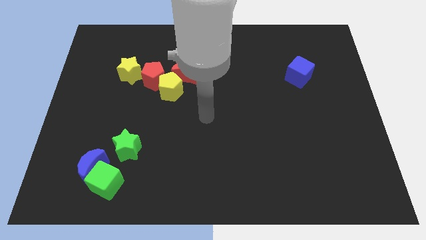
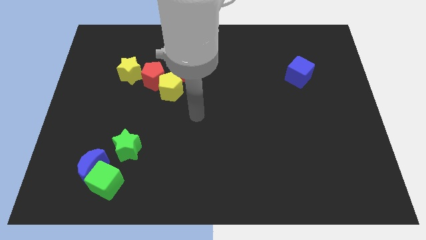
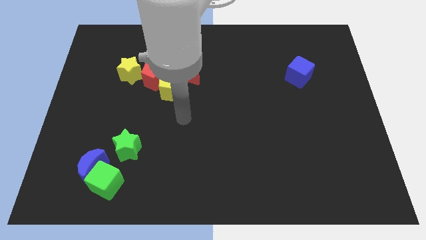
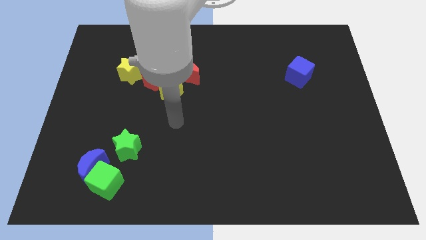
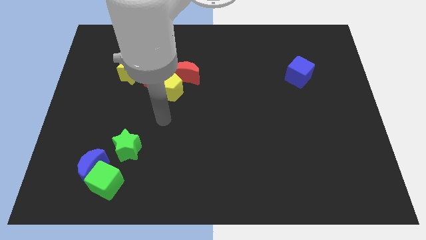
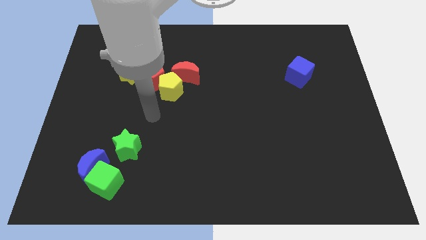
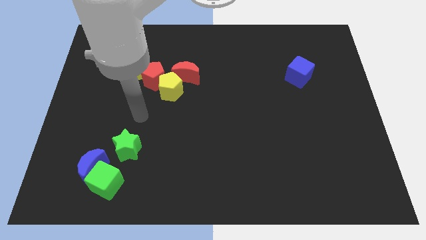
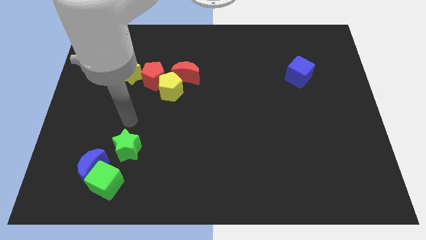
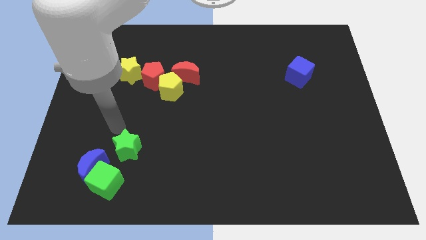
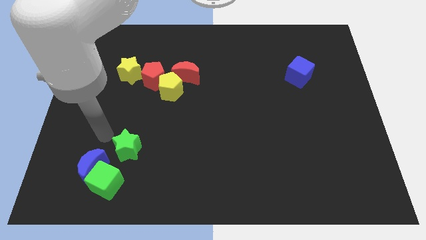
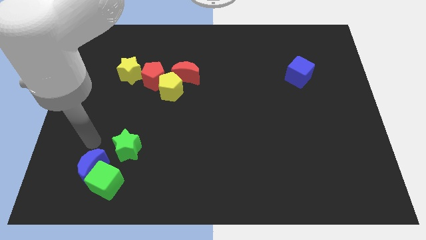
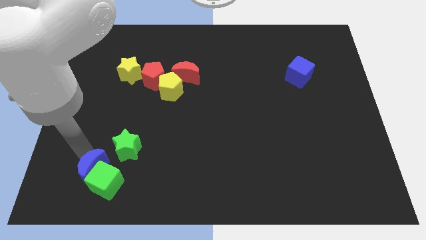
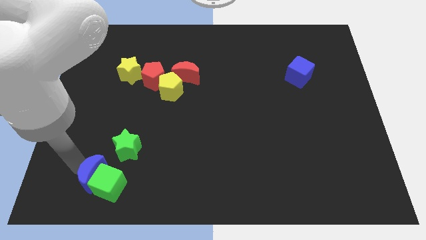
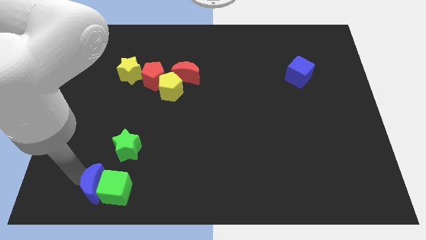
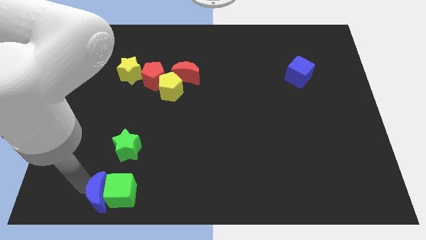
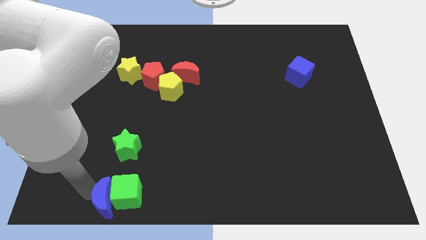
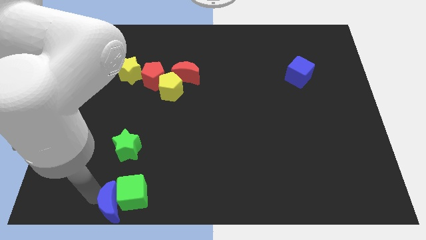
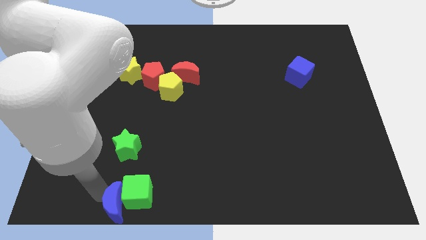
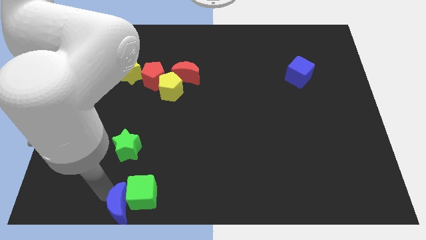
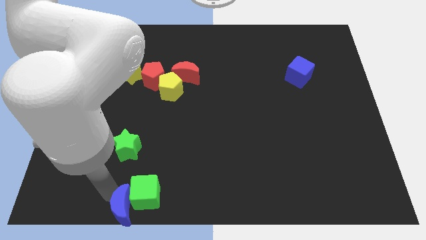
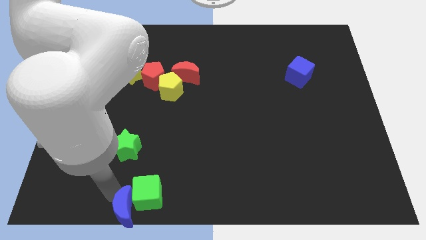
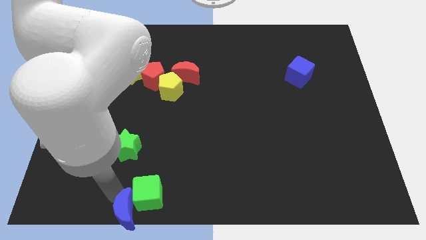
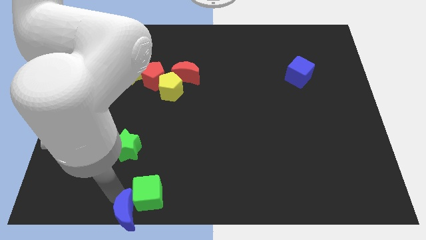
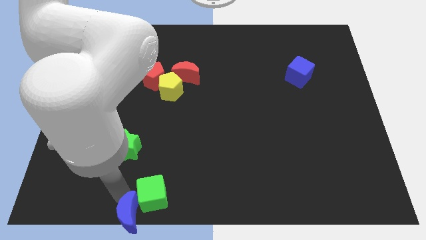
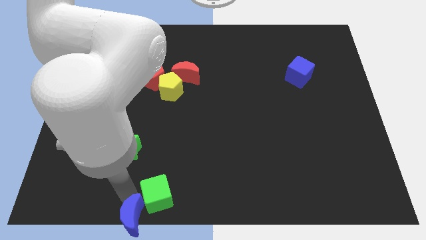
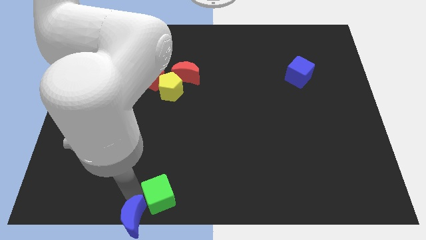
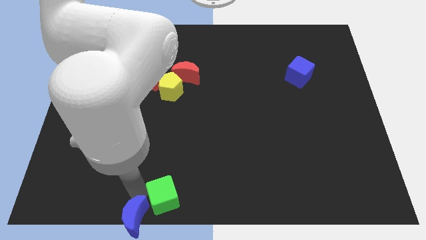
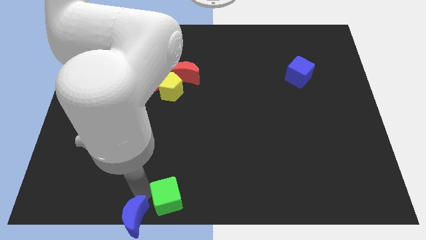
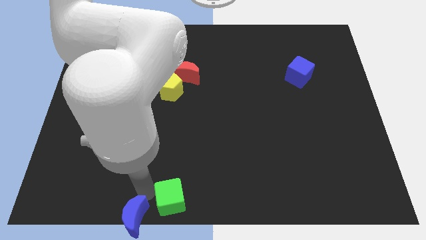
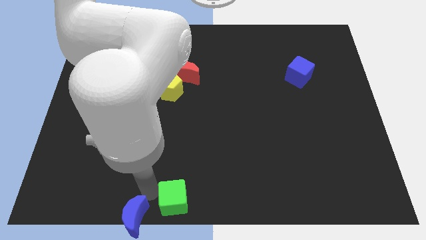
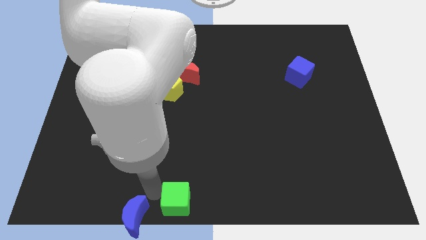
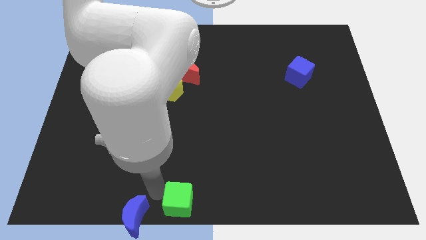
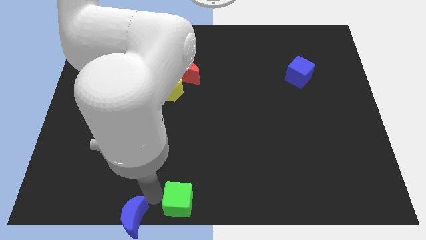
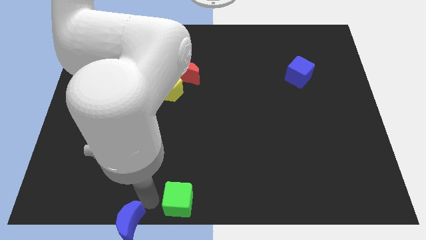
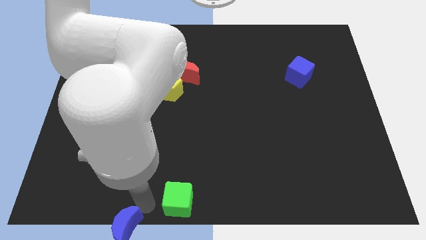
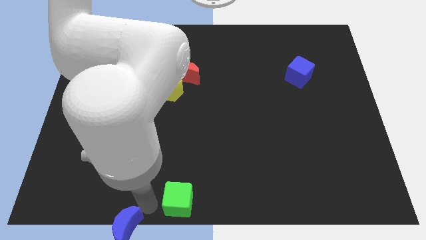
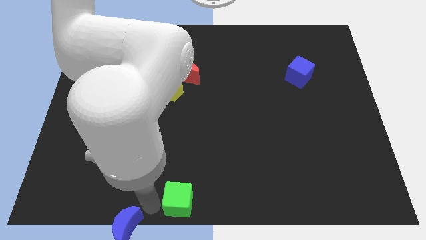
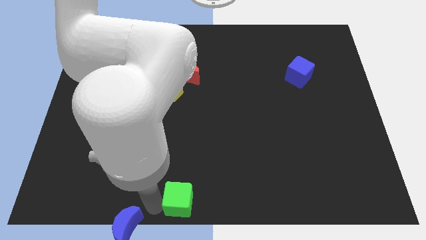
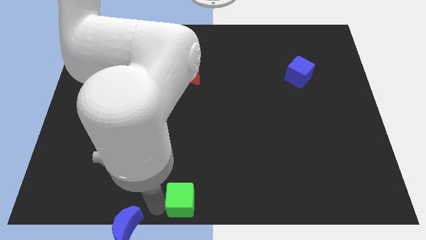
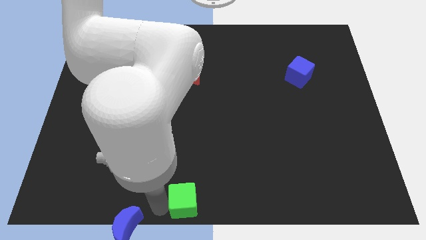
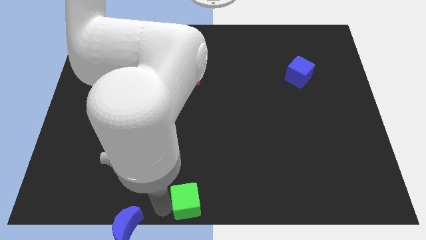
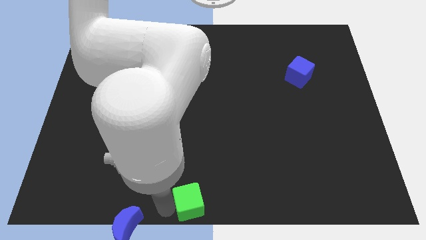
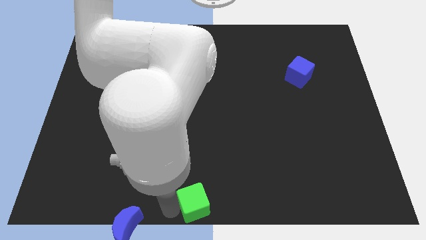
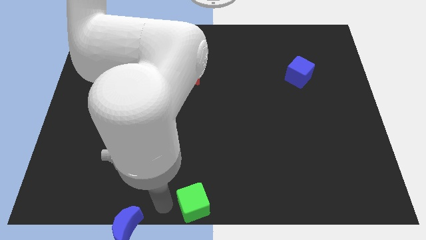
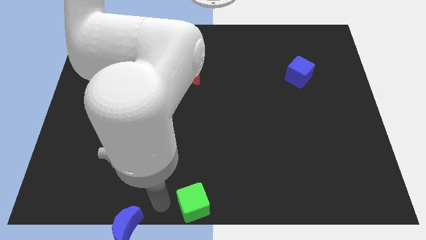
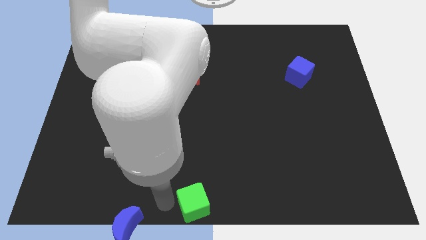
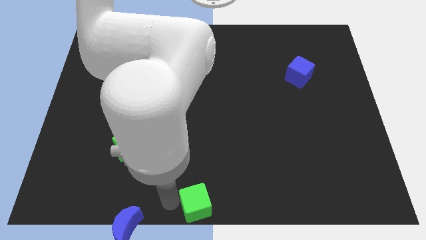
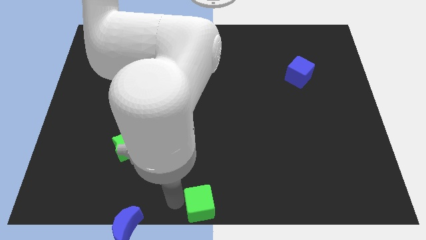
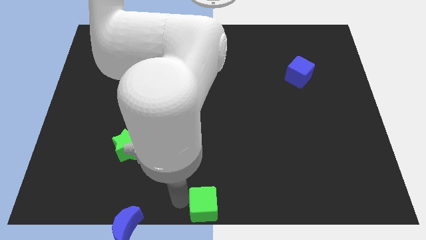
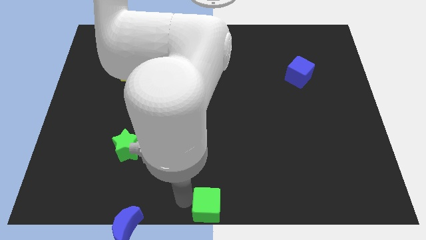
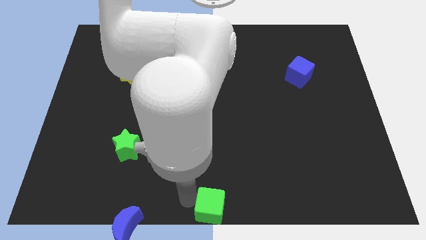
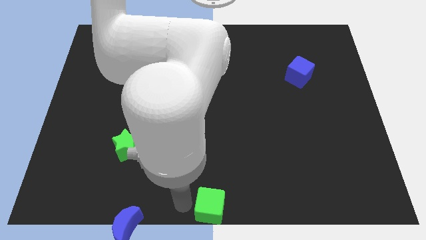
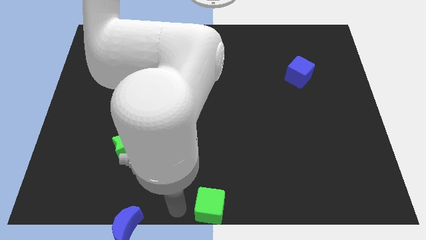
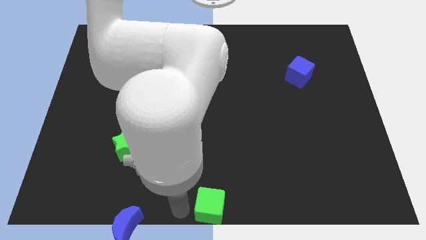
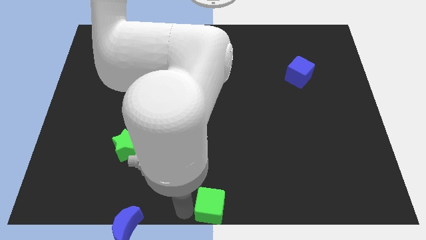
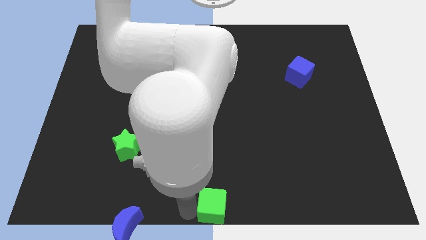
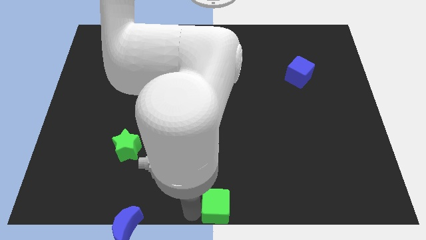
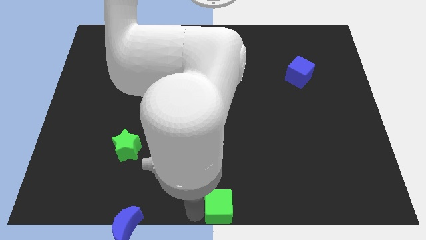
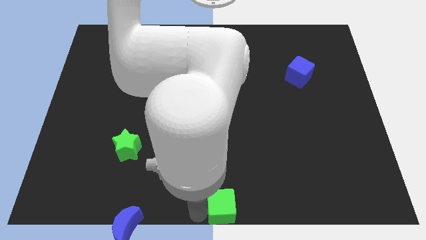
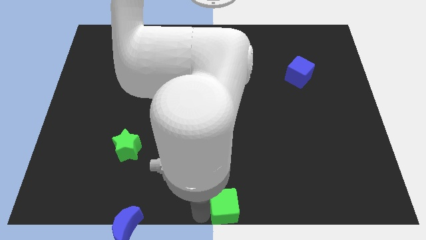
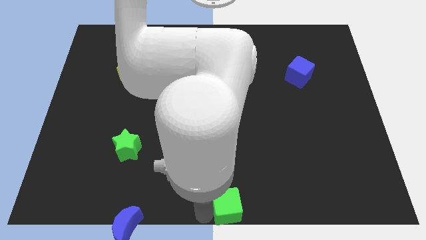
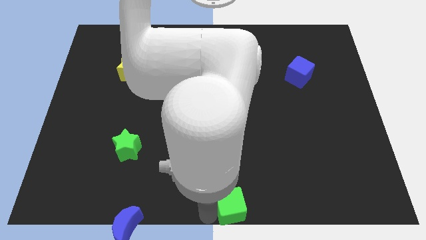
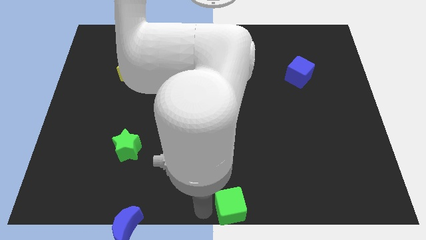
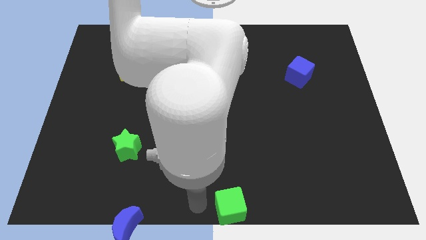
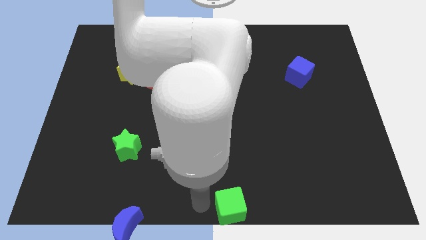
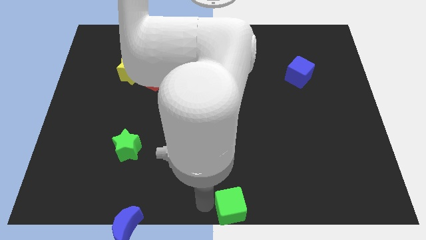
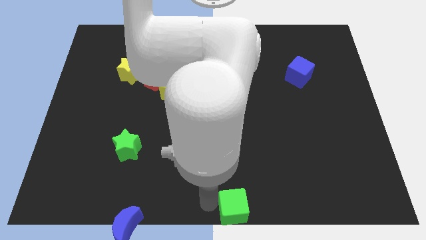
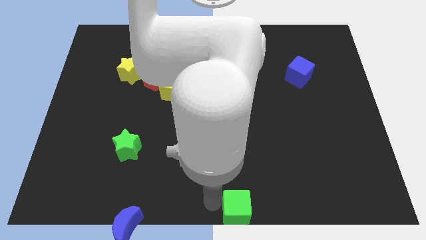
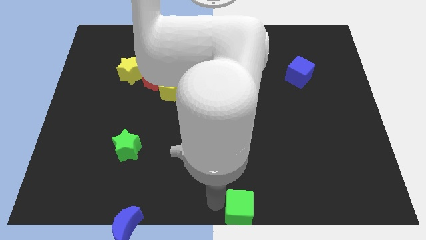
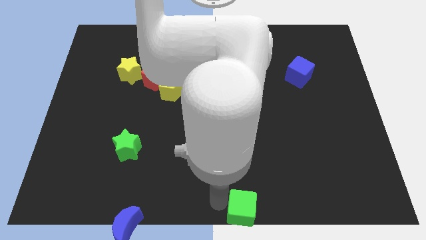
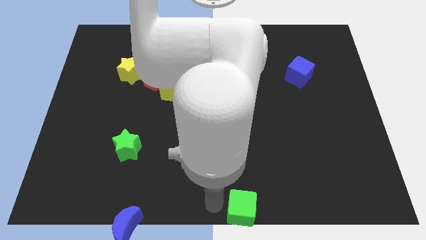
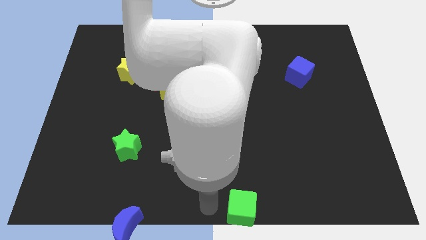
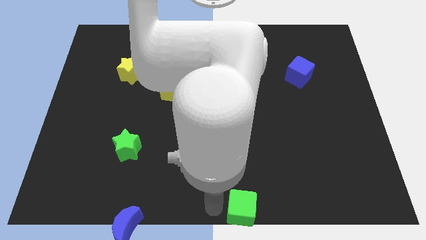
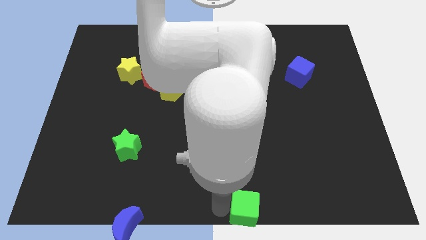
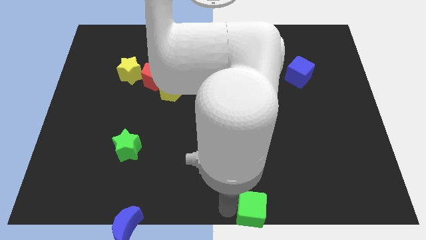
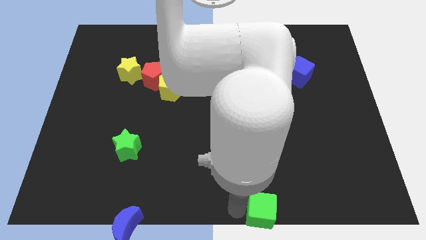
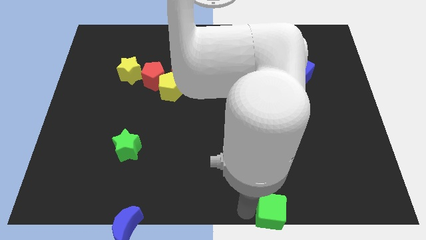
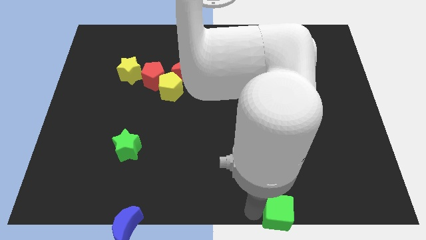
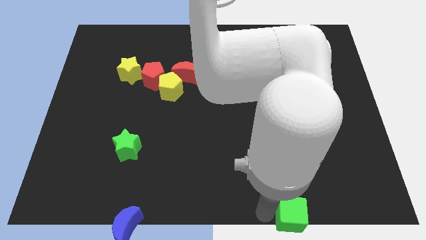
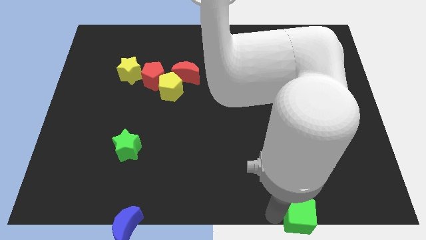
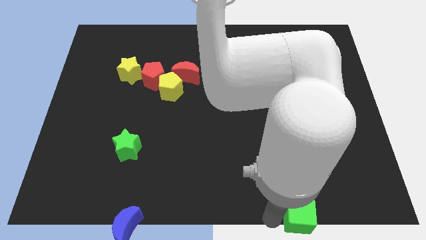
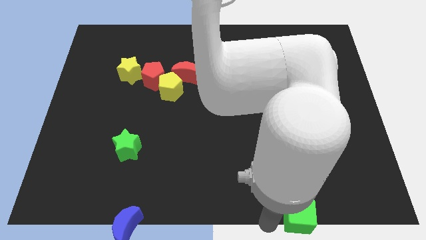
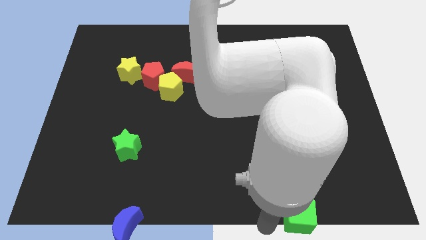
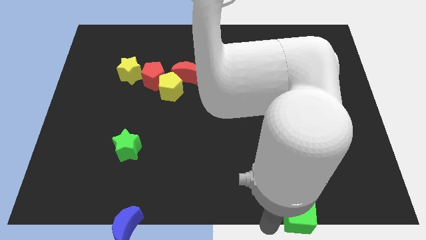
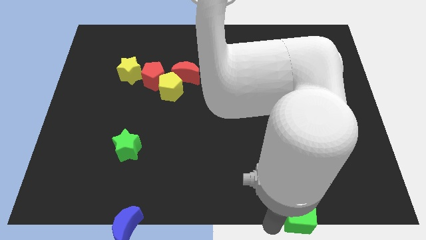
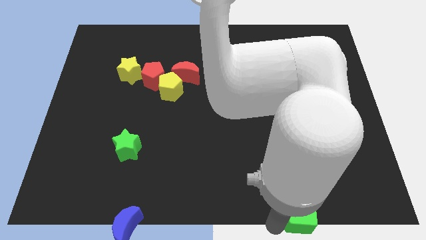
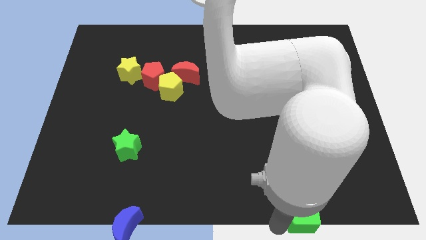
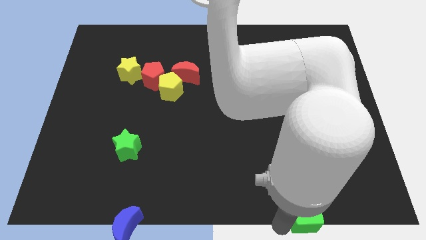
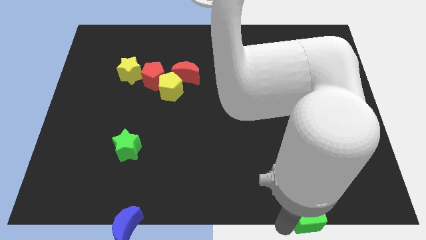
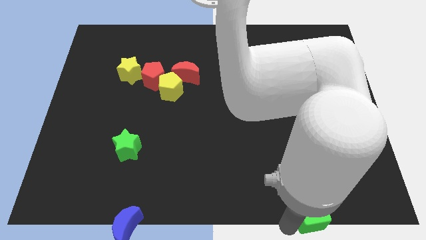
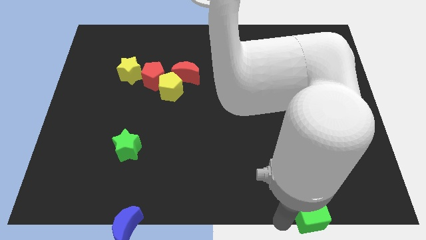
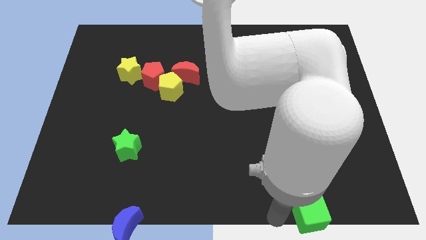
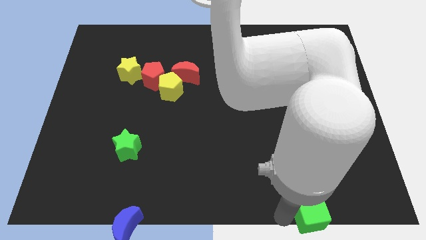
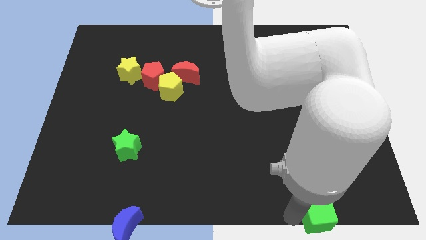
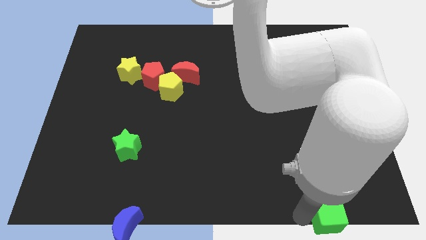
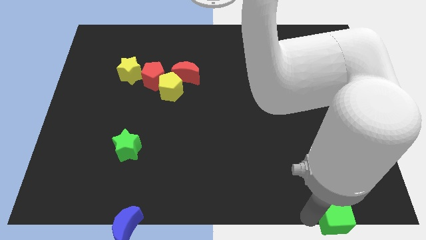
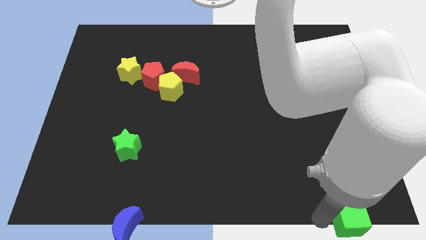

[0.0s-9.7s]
push the green cube to the lower right corner
